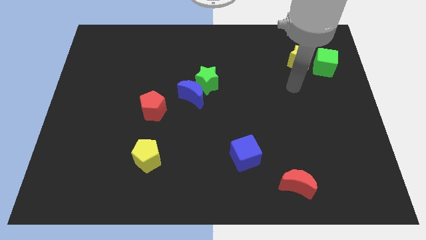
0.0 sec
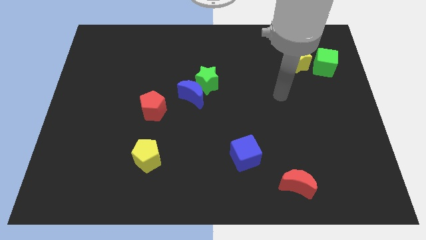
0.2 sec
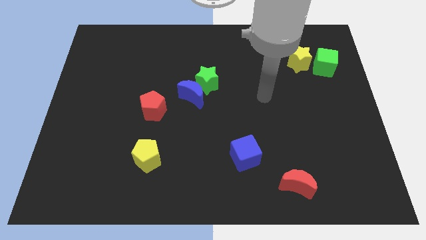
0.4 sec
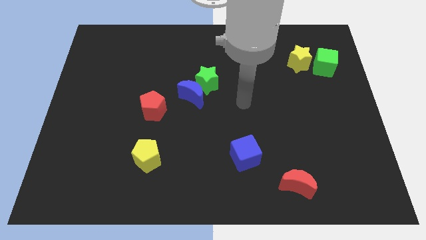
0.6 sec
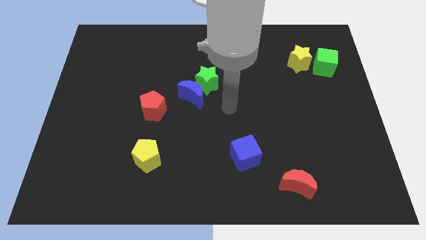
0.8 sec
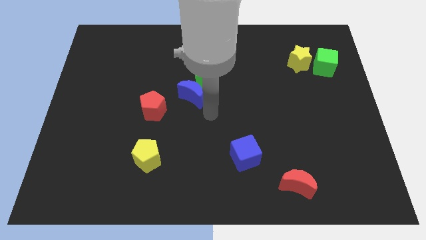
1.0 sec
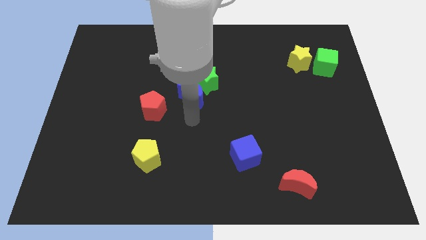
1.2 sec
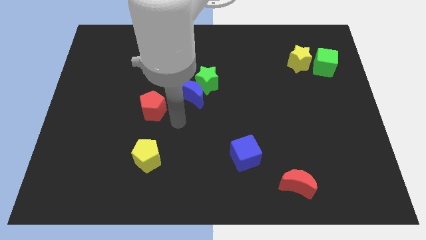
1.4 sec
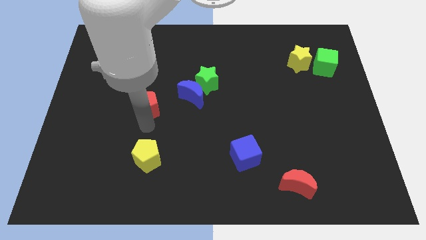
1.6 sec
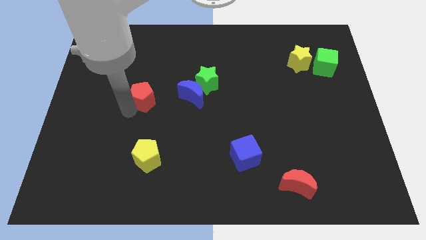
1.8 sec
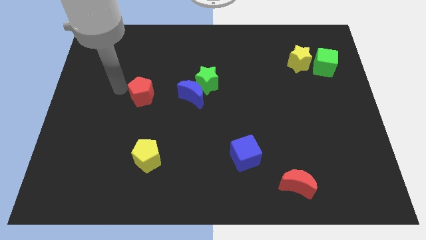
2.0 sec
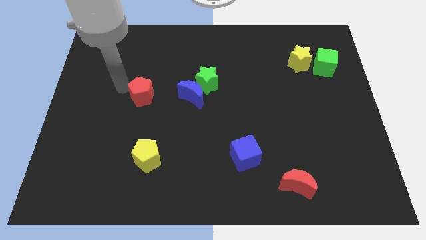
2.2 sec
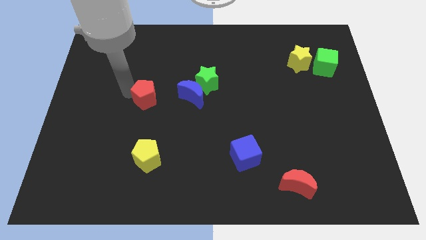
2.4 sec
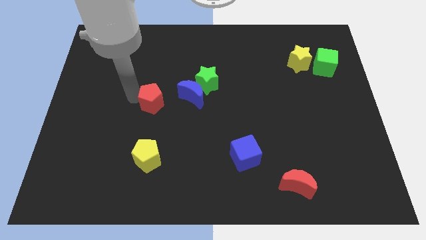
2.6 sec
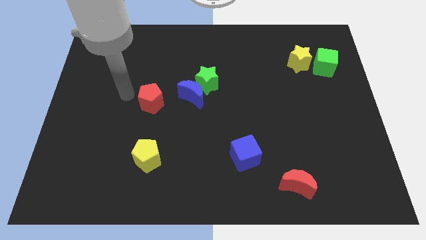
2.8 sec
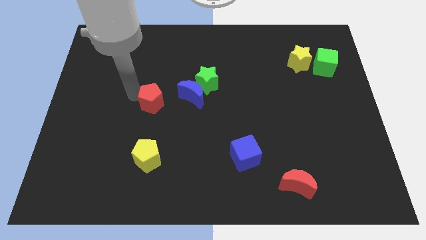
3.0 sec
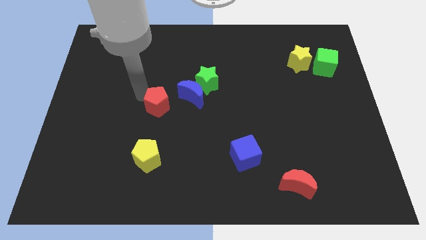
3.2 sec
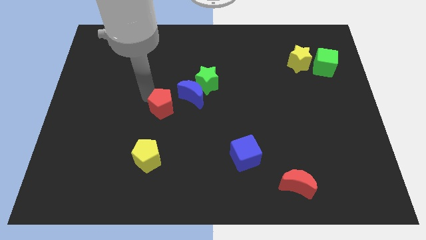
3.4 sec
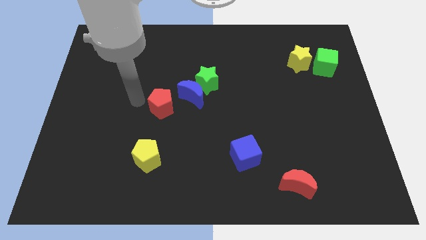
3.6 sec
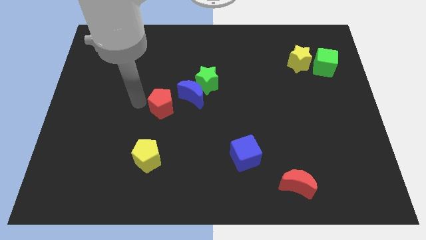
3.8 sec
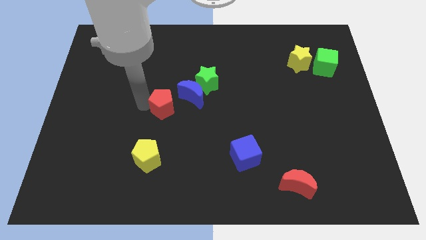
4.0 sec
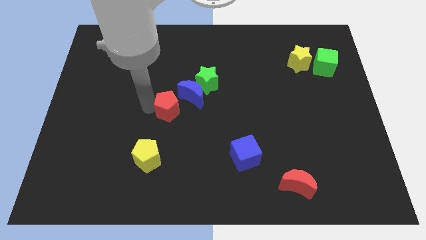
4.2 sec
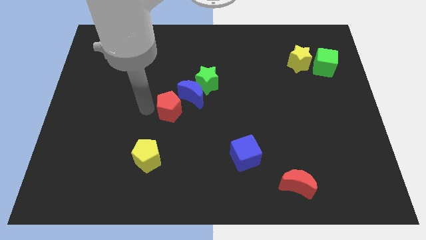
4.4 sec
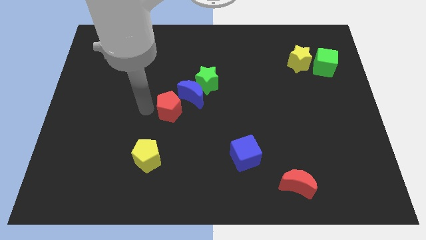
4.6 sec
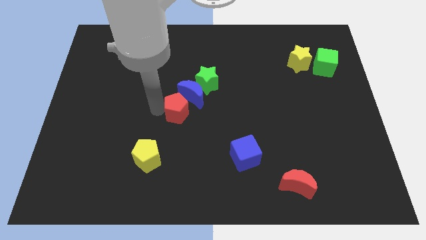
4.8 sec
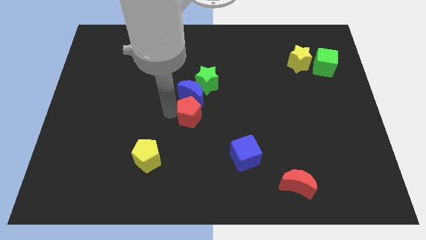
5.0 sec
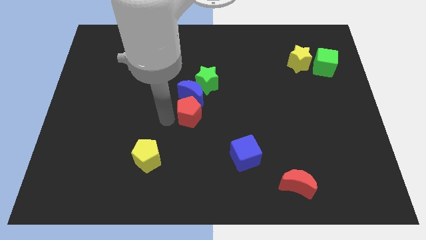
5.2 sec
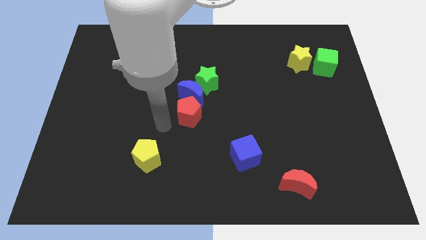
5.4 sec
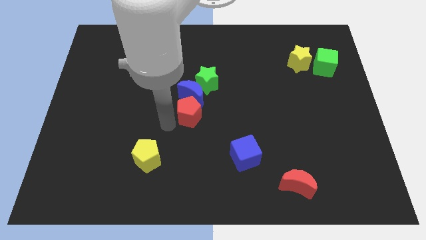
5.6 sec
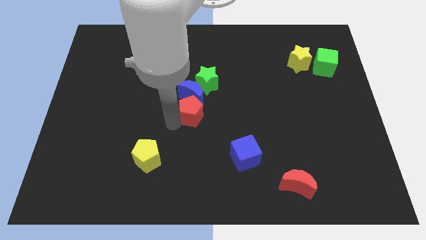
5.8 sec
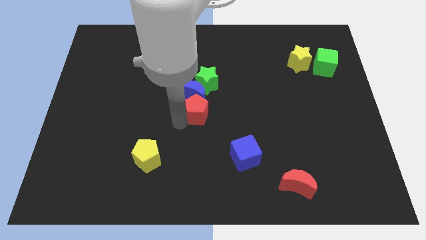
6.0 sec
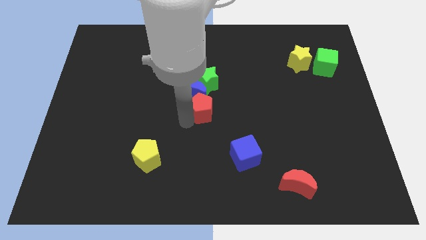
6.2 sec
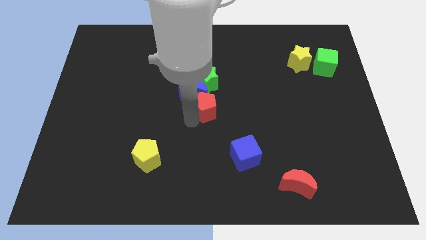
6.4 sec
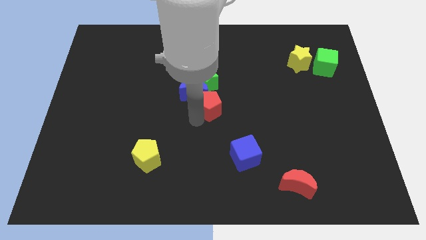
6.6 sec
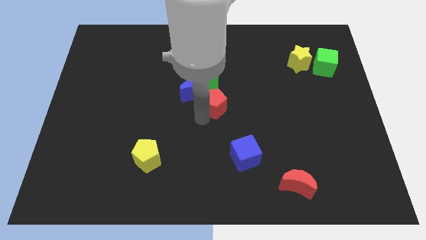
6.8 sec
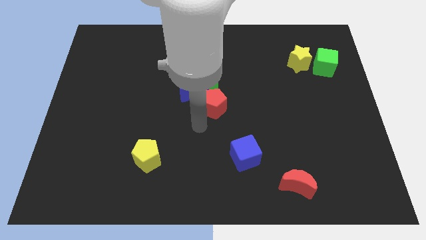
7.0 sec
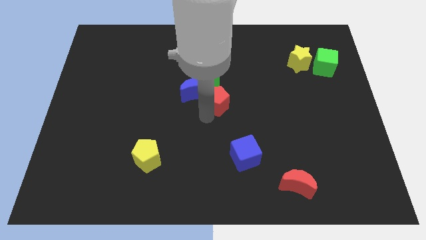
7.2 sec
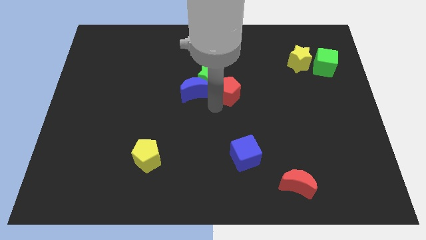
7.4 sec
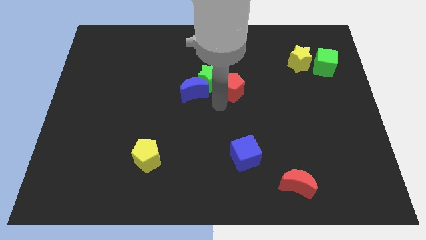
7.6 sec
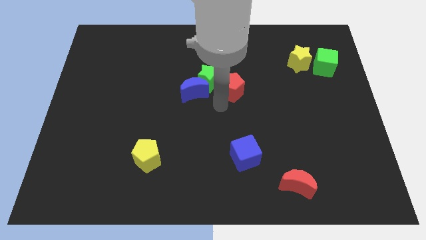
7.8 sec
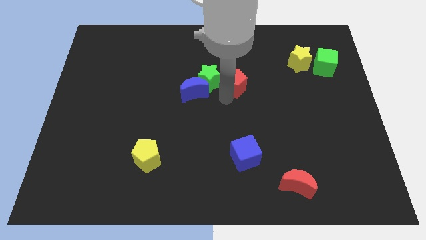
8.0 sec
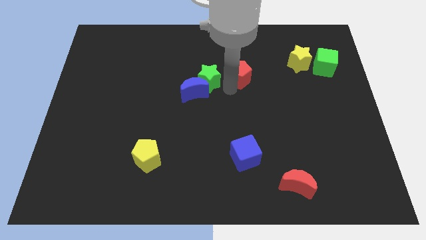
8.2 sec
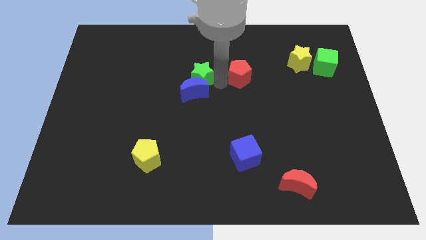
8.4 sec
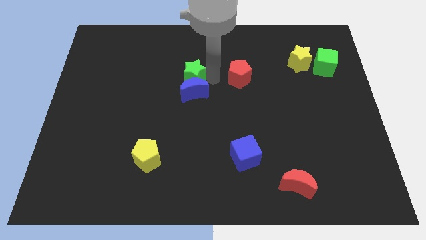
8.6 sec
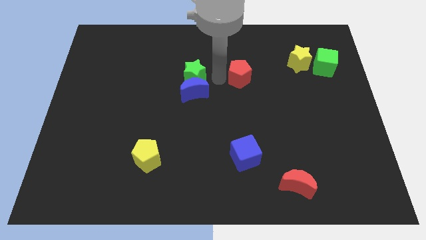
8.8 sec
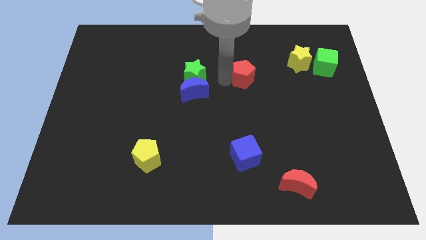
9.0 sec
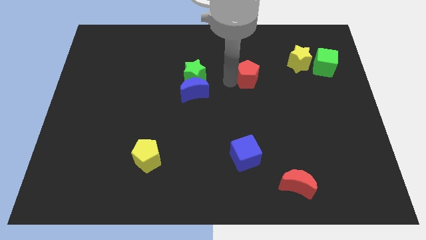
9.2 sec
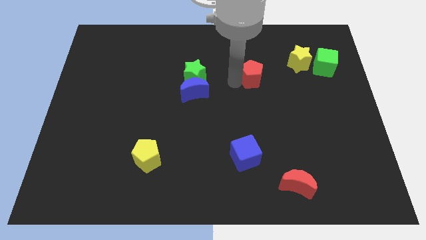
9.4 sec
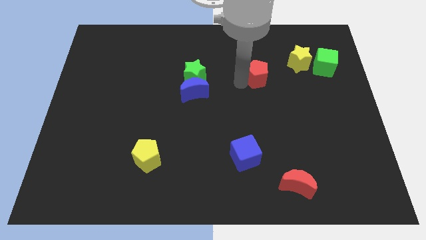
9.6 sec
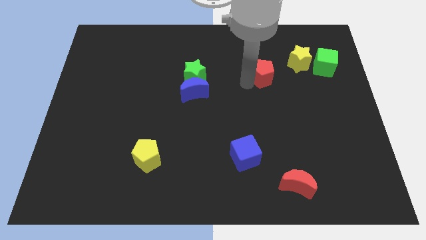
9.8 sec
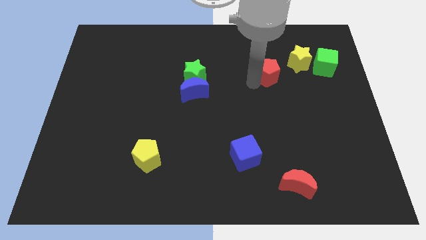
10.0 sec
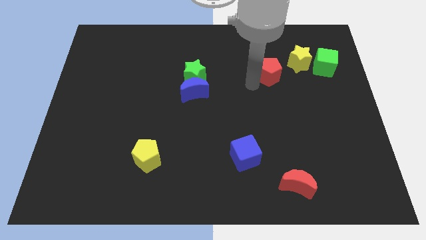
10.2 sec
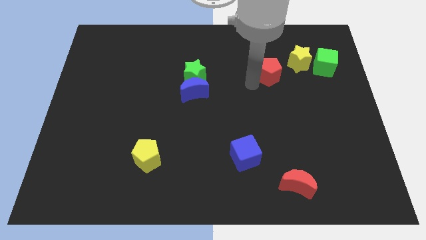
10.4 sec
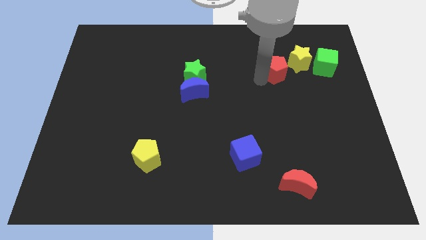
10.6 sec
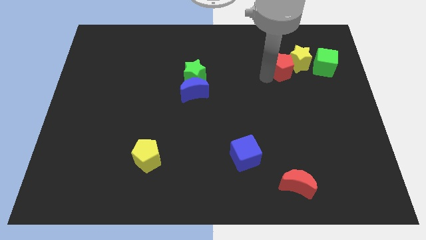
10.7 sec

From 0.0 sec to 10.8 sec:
put the red pentagon to the yellow star

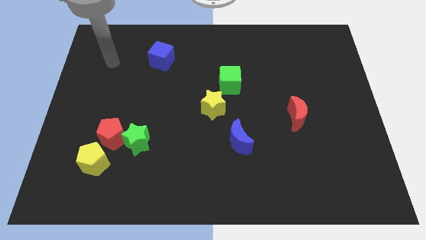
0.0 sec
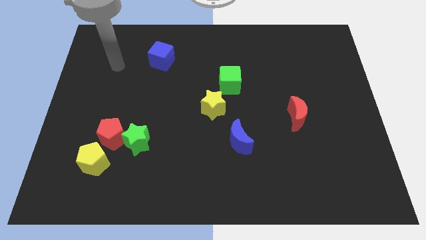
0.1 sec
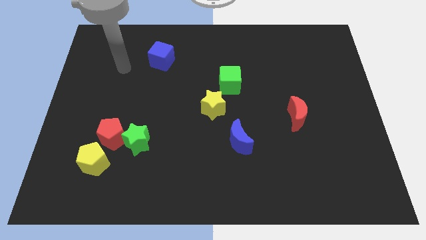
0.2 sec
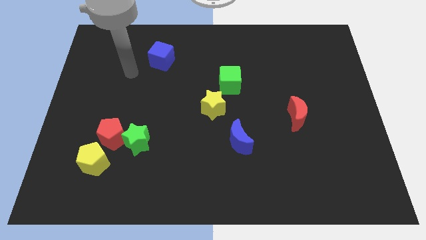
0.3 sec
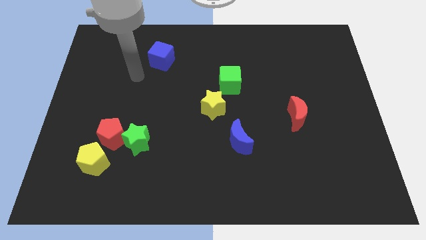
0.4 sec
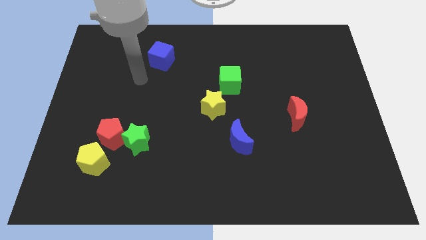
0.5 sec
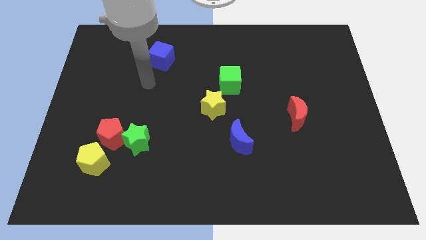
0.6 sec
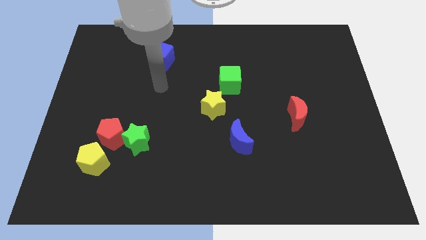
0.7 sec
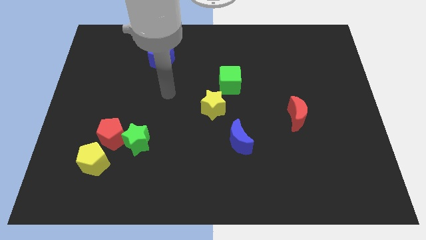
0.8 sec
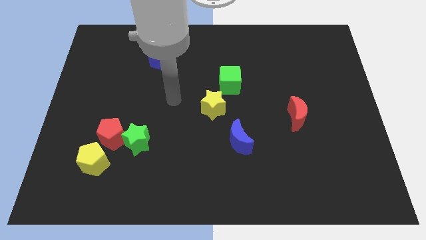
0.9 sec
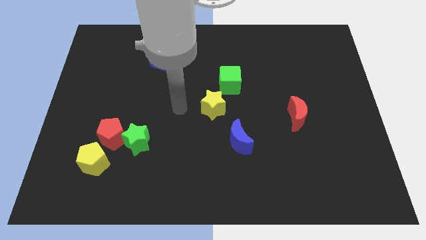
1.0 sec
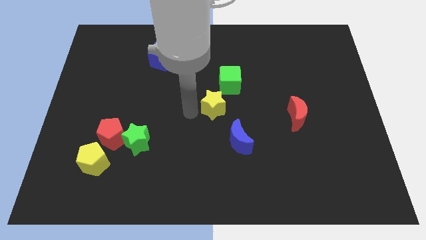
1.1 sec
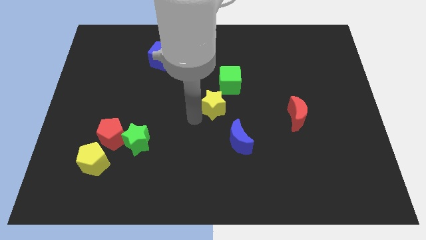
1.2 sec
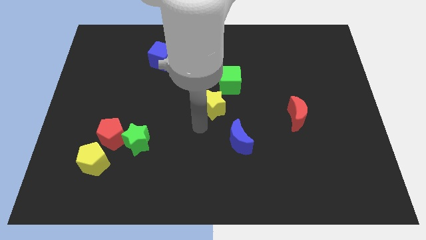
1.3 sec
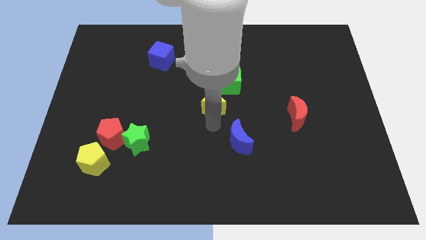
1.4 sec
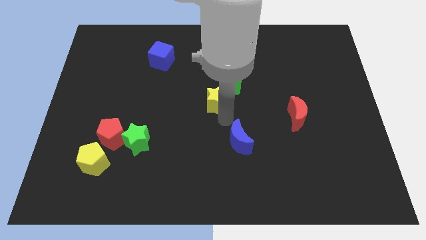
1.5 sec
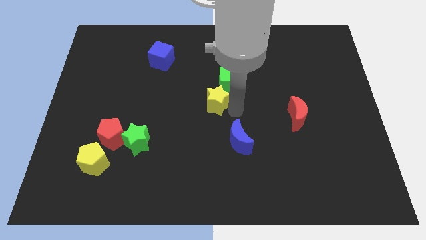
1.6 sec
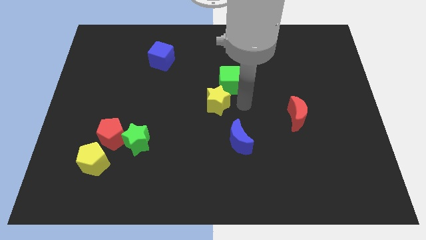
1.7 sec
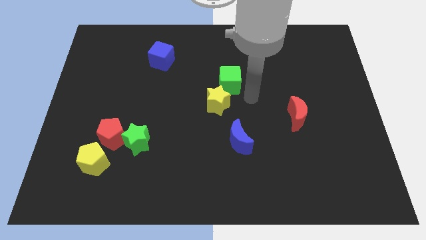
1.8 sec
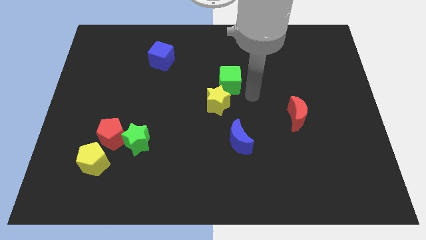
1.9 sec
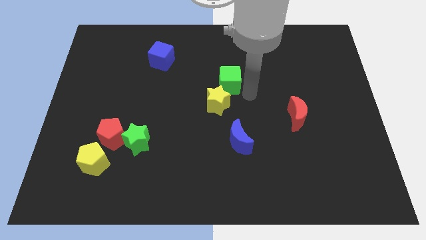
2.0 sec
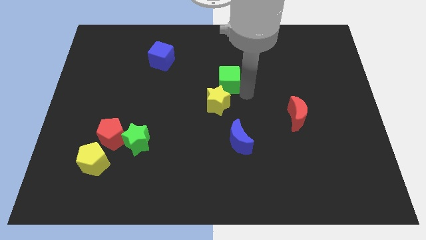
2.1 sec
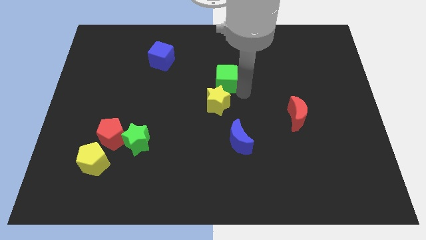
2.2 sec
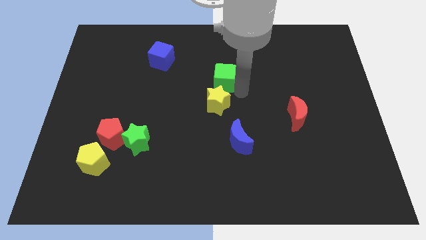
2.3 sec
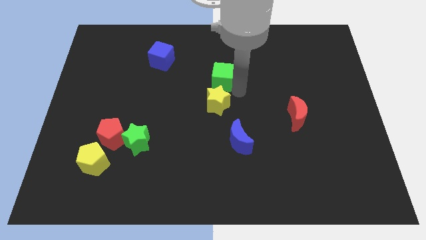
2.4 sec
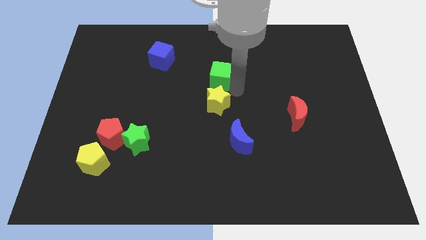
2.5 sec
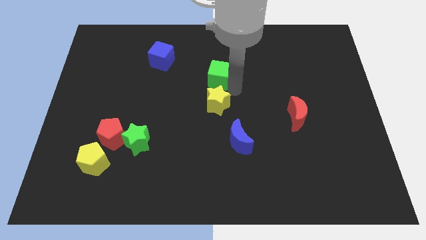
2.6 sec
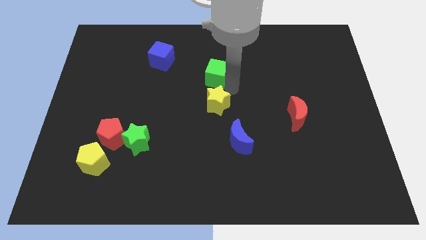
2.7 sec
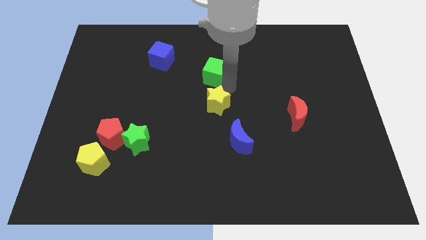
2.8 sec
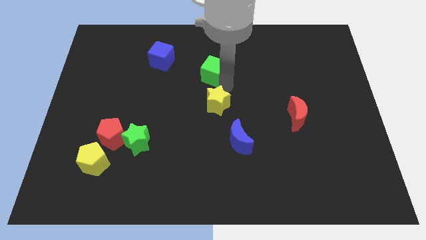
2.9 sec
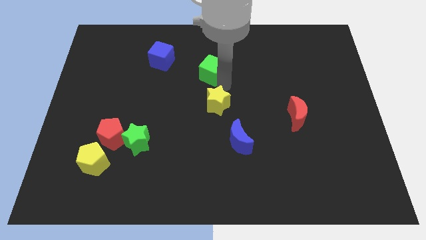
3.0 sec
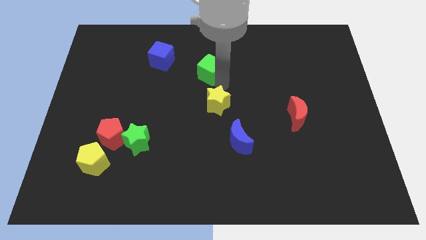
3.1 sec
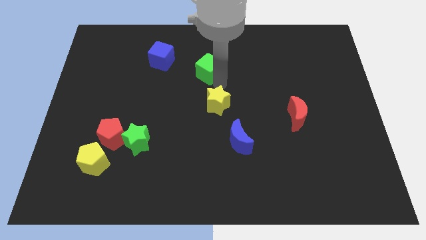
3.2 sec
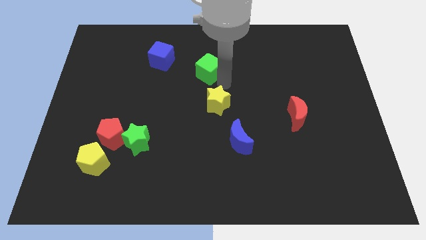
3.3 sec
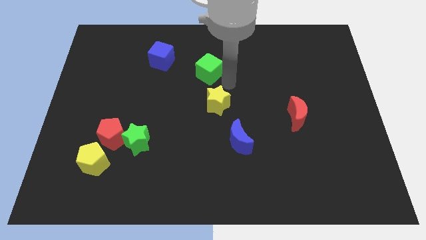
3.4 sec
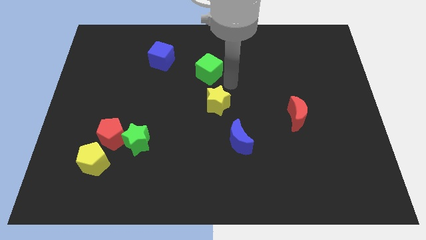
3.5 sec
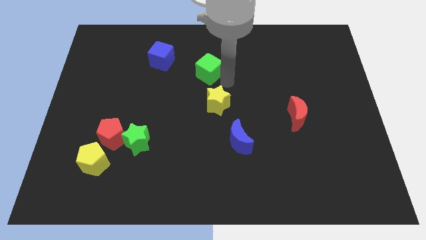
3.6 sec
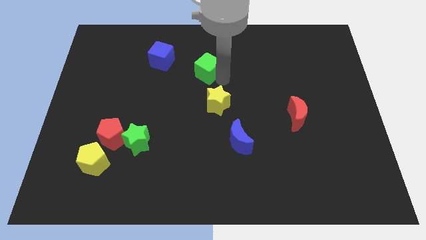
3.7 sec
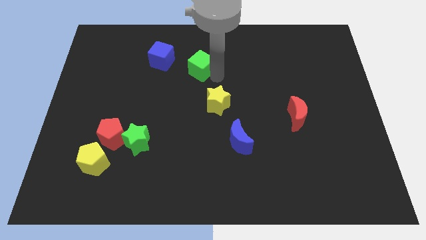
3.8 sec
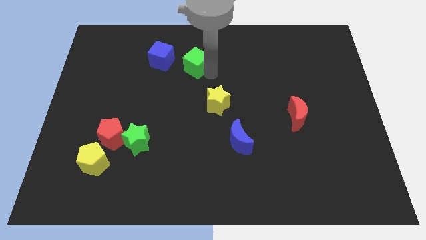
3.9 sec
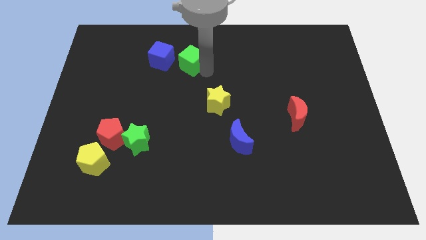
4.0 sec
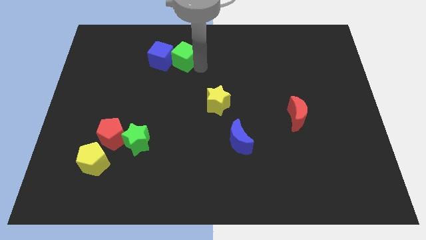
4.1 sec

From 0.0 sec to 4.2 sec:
push the green cube close to the blue cube
